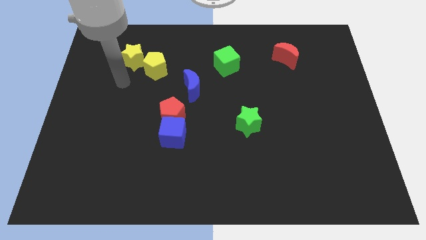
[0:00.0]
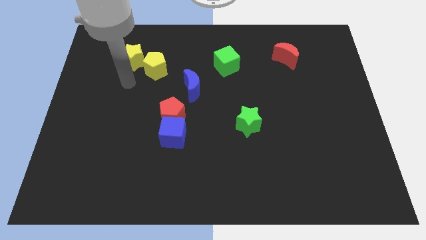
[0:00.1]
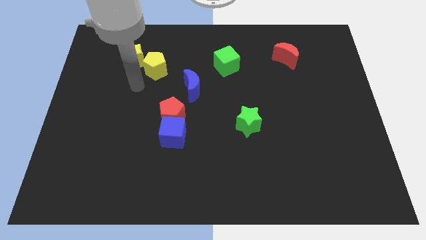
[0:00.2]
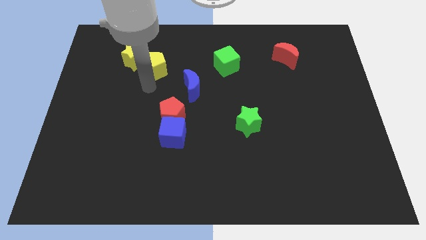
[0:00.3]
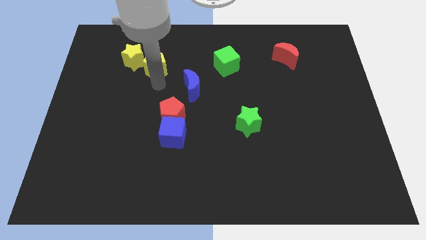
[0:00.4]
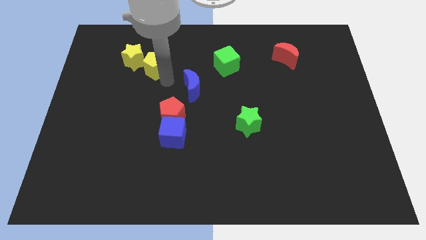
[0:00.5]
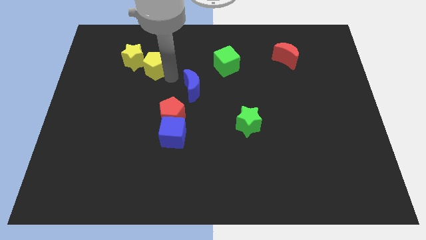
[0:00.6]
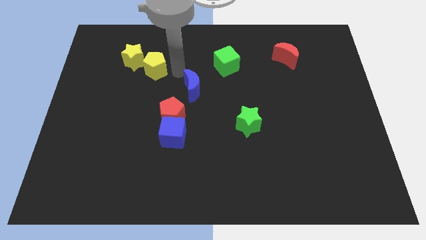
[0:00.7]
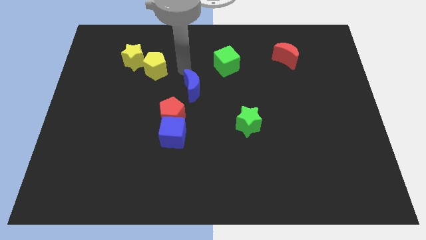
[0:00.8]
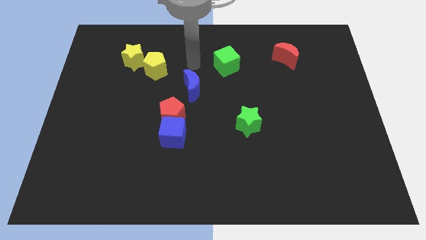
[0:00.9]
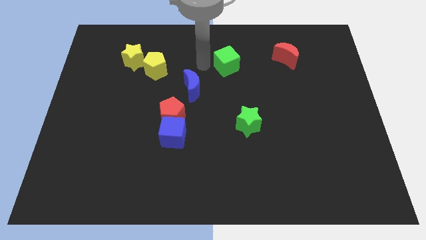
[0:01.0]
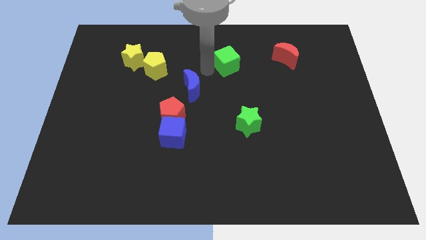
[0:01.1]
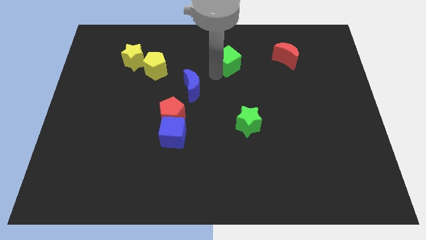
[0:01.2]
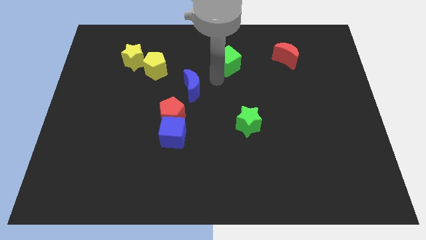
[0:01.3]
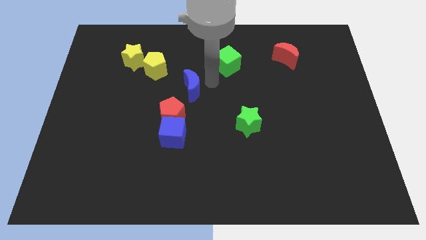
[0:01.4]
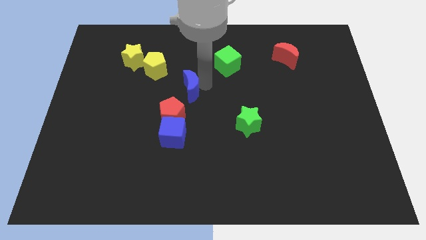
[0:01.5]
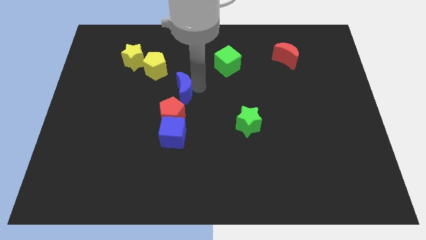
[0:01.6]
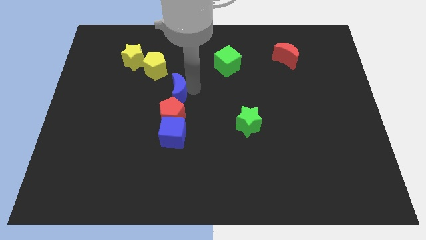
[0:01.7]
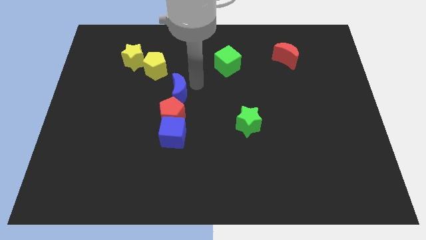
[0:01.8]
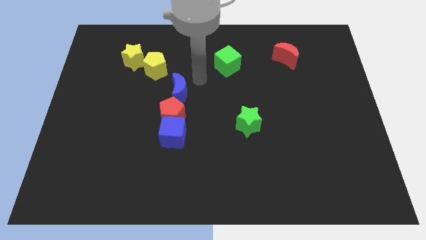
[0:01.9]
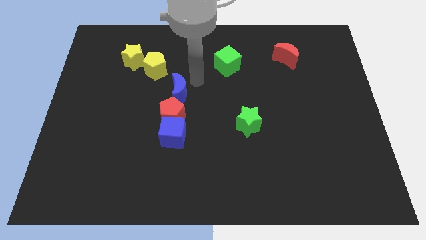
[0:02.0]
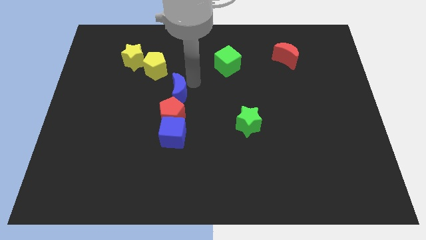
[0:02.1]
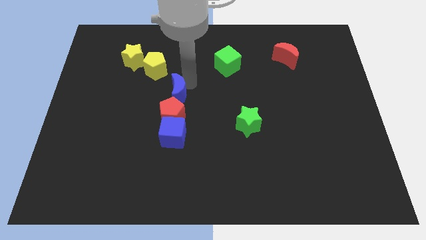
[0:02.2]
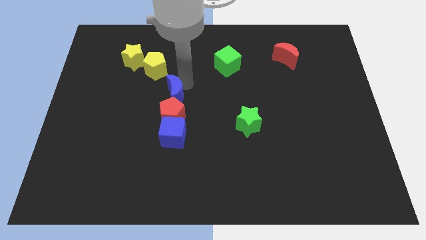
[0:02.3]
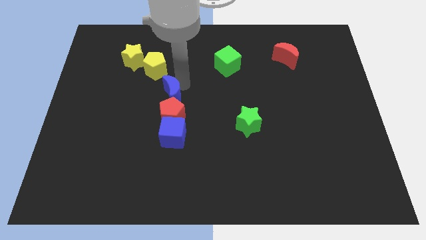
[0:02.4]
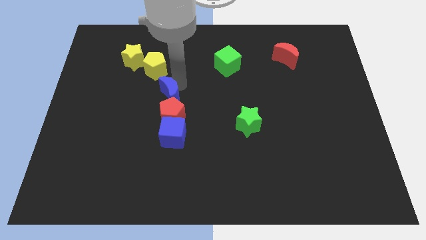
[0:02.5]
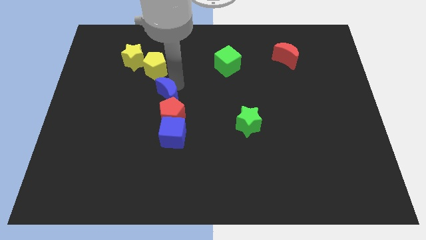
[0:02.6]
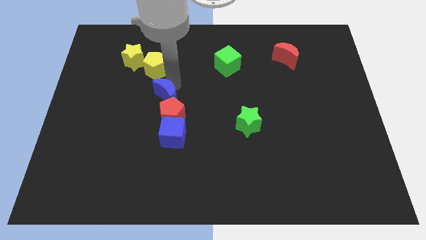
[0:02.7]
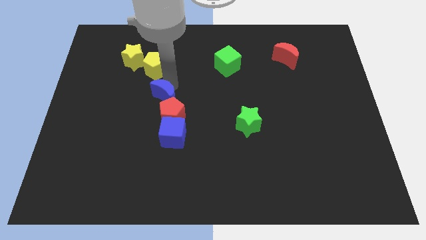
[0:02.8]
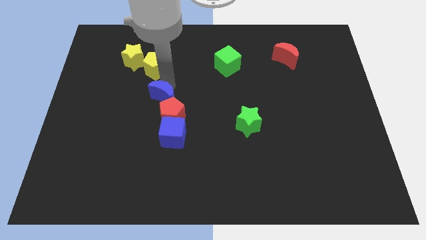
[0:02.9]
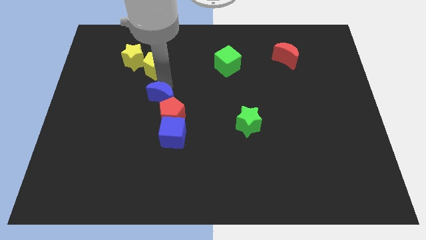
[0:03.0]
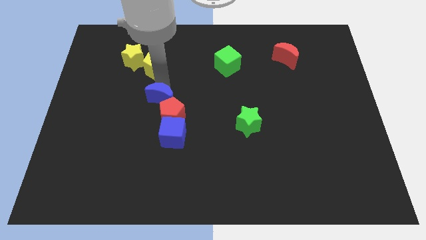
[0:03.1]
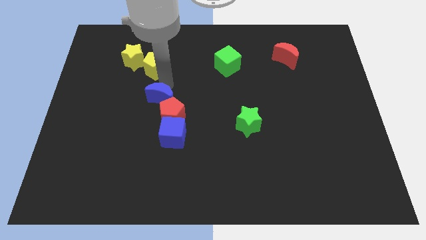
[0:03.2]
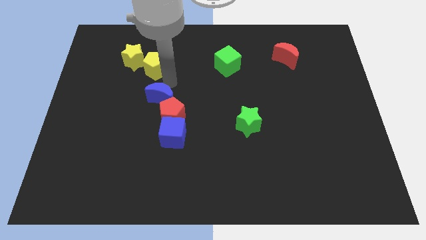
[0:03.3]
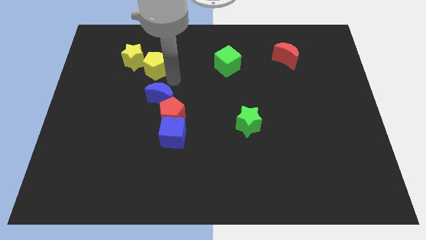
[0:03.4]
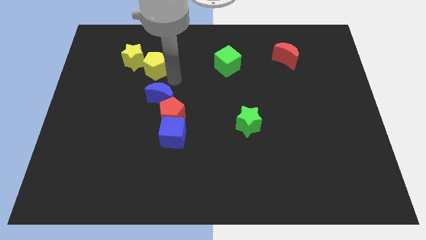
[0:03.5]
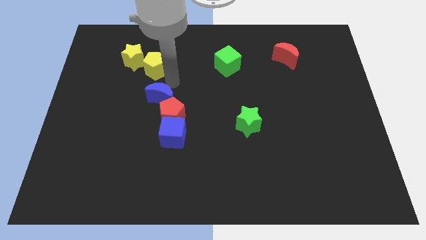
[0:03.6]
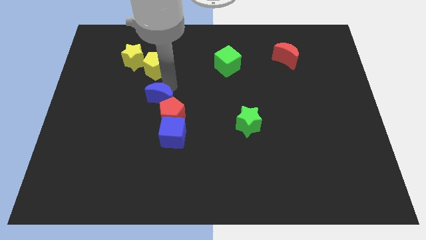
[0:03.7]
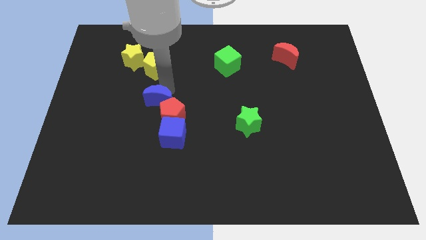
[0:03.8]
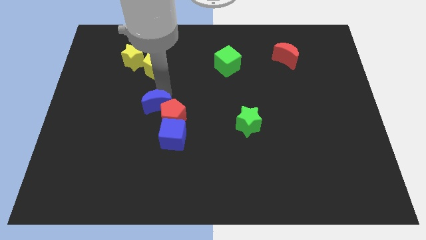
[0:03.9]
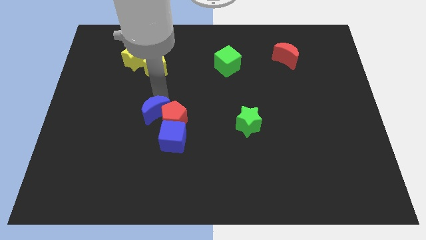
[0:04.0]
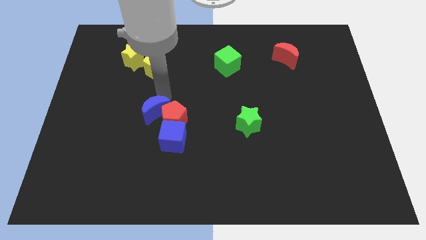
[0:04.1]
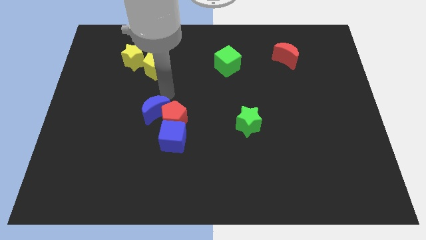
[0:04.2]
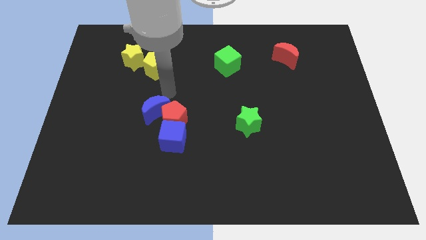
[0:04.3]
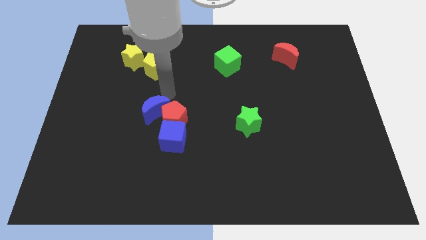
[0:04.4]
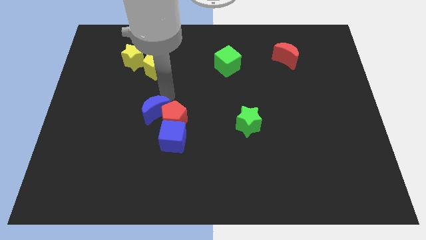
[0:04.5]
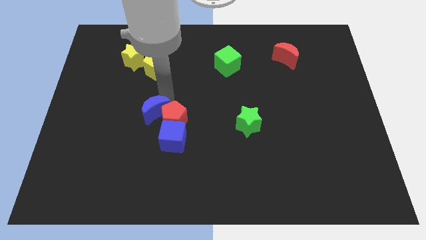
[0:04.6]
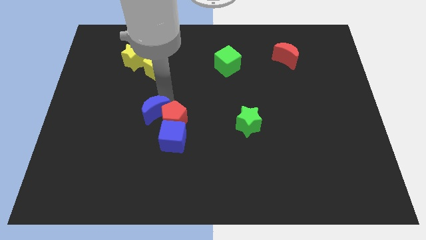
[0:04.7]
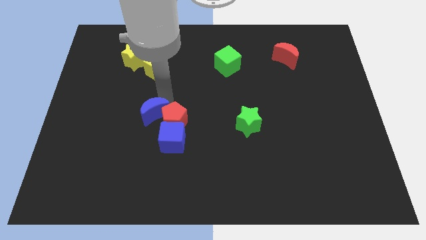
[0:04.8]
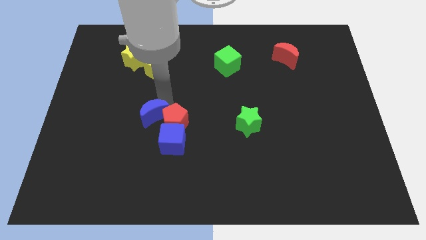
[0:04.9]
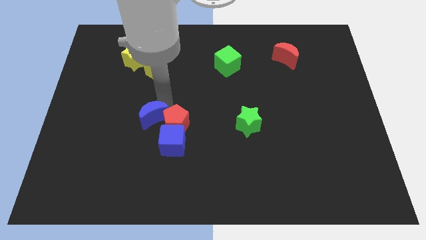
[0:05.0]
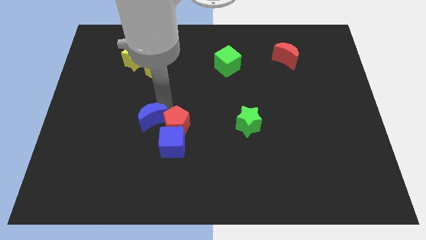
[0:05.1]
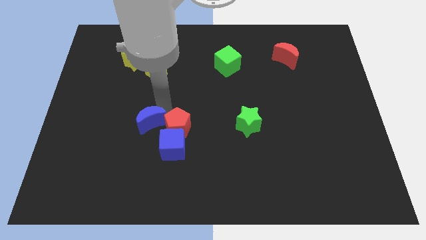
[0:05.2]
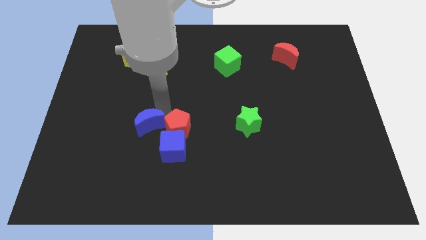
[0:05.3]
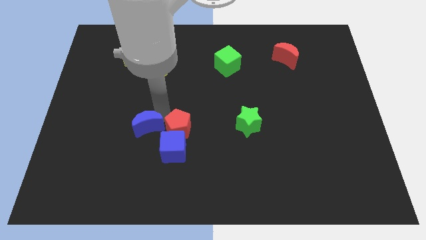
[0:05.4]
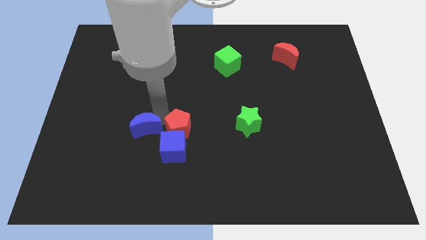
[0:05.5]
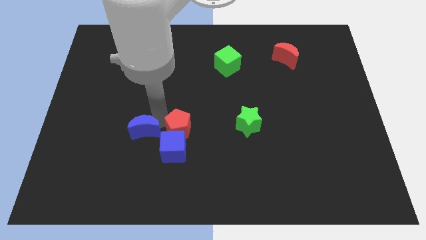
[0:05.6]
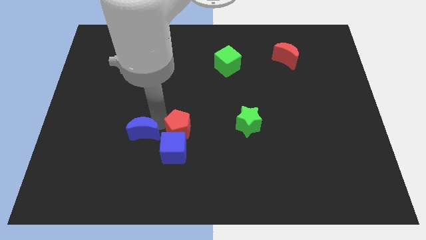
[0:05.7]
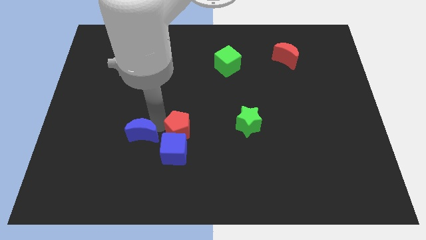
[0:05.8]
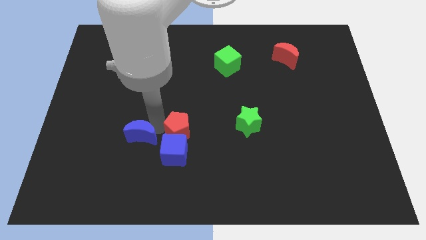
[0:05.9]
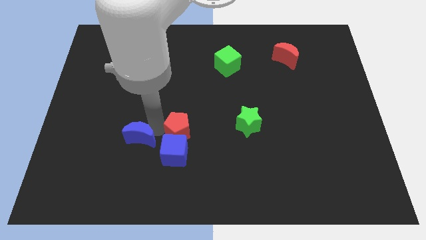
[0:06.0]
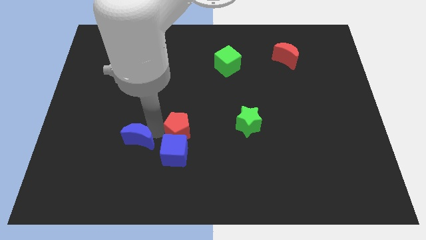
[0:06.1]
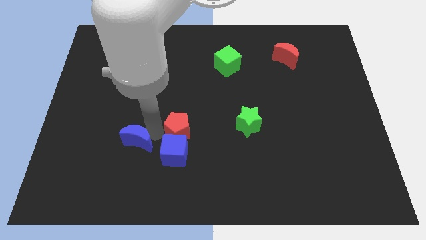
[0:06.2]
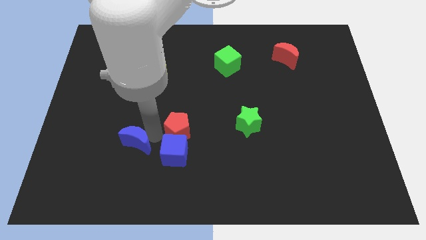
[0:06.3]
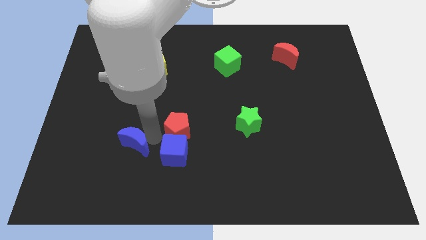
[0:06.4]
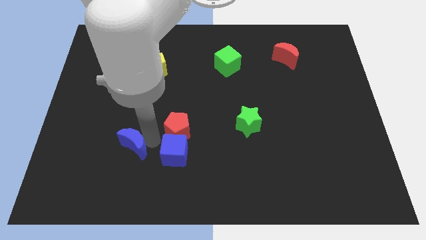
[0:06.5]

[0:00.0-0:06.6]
move the blue moon down and left diagonally

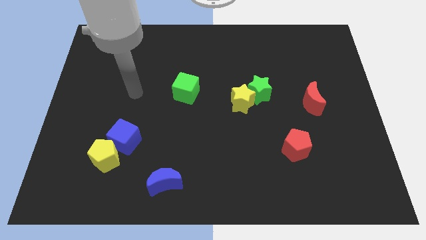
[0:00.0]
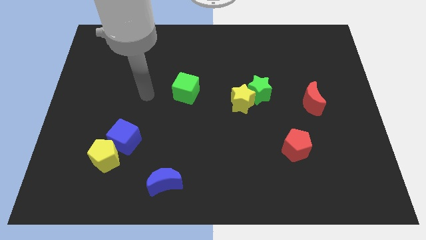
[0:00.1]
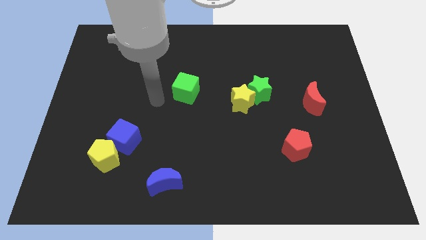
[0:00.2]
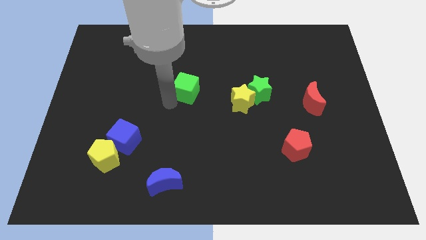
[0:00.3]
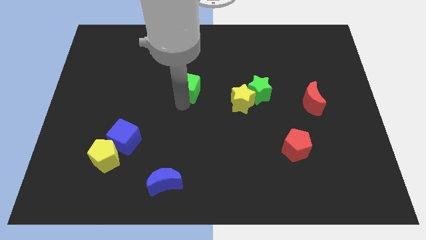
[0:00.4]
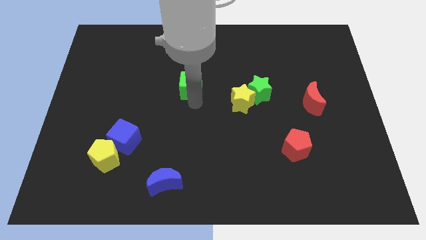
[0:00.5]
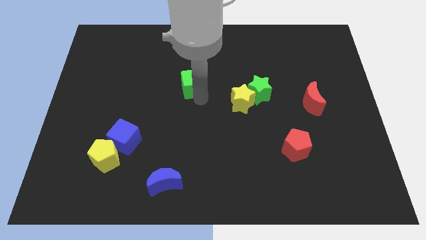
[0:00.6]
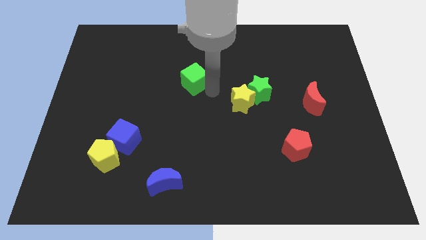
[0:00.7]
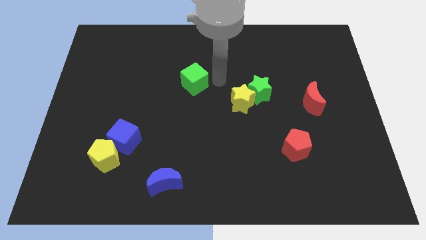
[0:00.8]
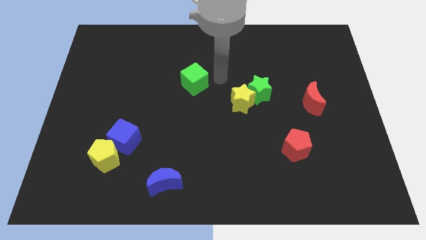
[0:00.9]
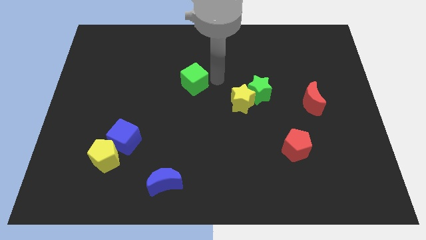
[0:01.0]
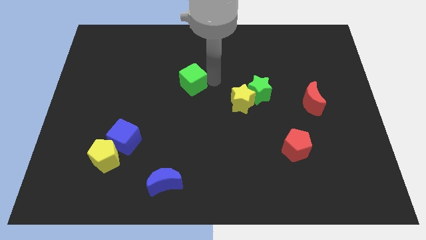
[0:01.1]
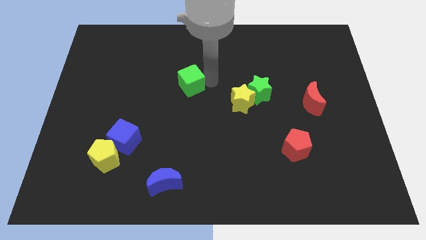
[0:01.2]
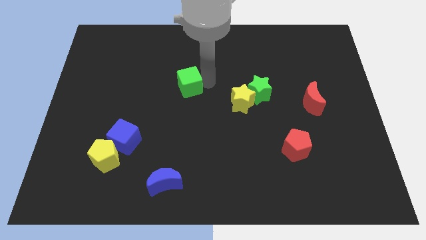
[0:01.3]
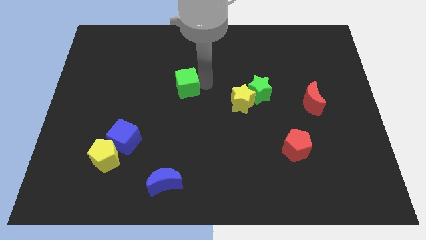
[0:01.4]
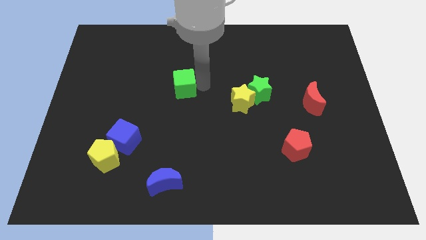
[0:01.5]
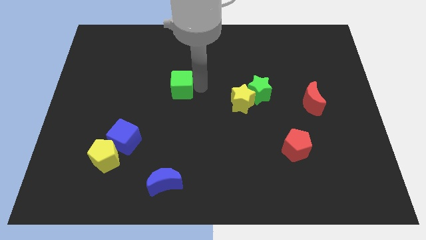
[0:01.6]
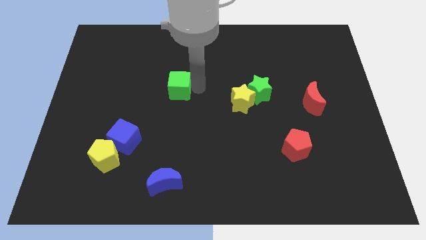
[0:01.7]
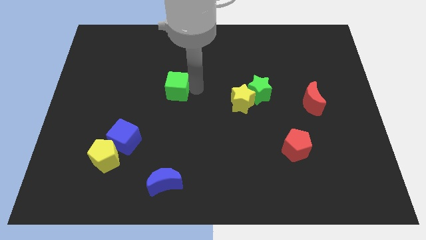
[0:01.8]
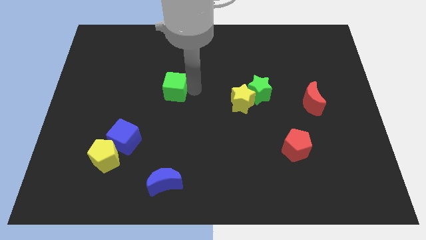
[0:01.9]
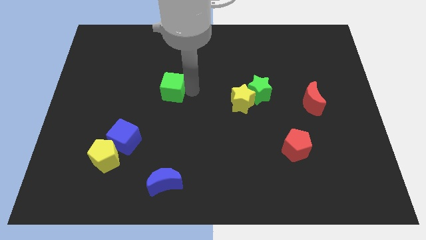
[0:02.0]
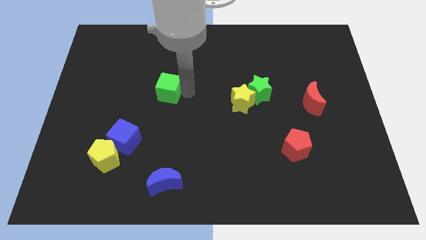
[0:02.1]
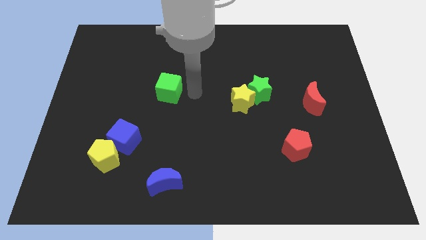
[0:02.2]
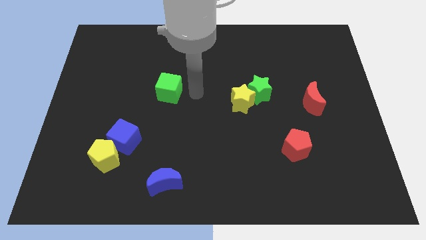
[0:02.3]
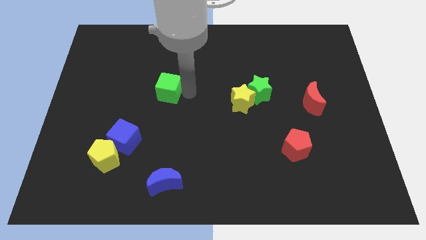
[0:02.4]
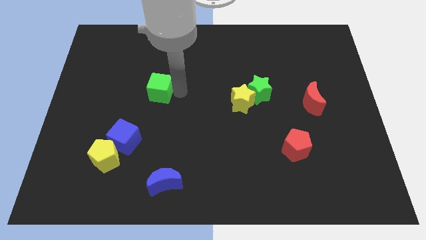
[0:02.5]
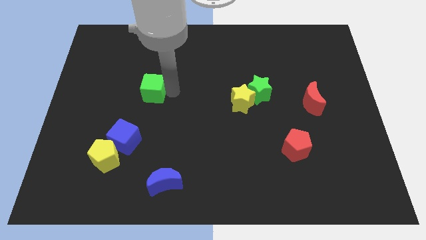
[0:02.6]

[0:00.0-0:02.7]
move the green cube somewhat left
